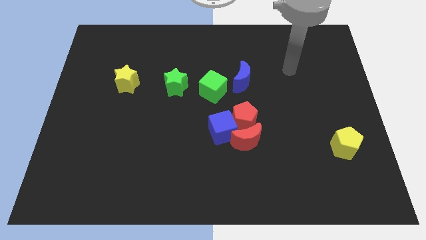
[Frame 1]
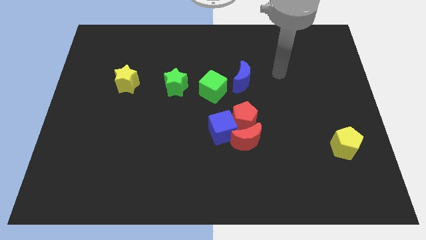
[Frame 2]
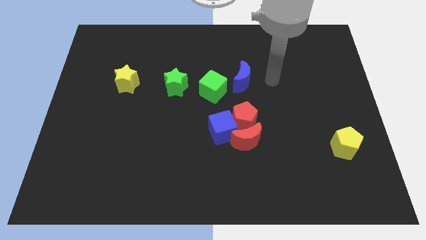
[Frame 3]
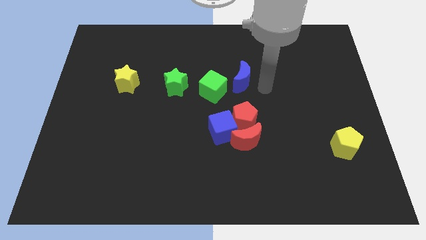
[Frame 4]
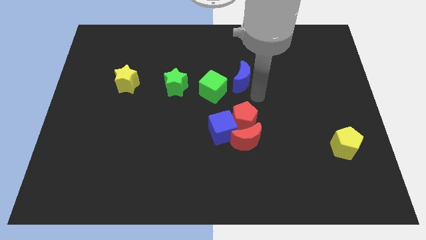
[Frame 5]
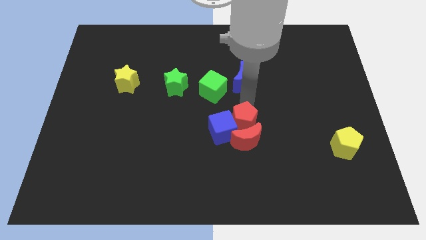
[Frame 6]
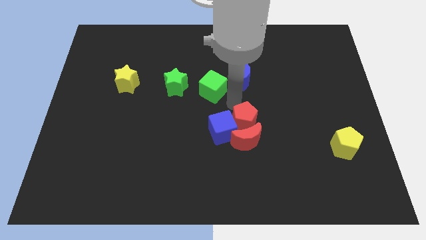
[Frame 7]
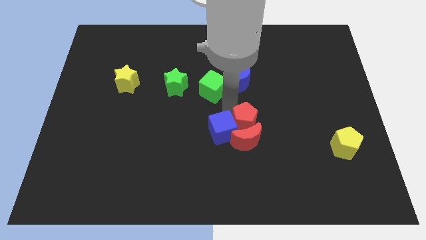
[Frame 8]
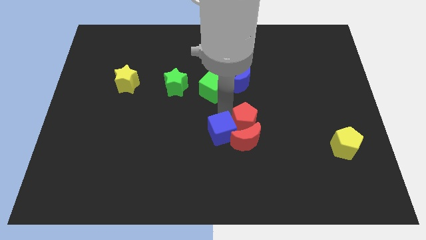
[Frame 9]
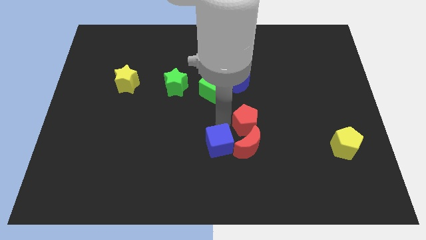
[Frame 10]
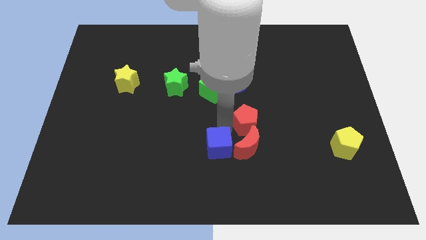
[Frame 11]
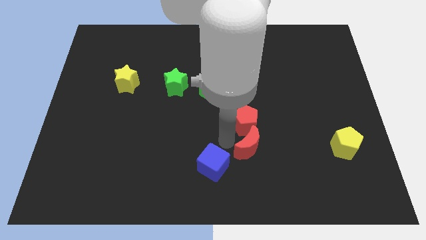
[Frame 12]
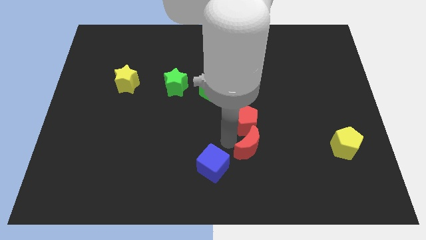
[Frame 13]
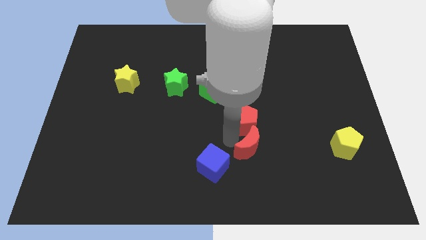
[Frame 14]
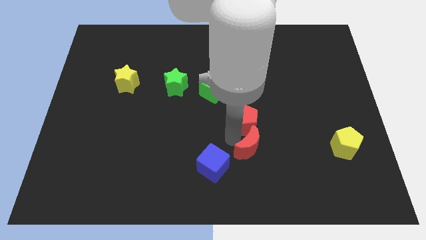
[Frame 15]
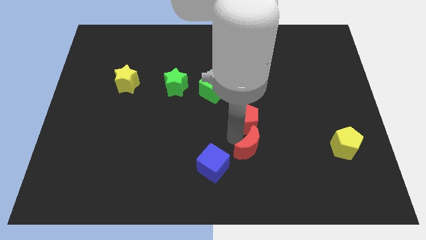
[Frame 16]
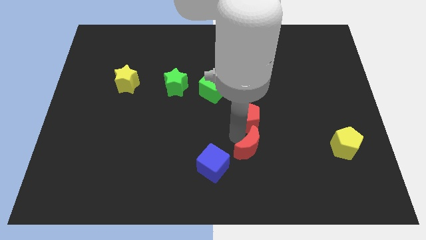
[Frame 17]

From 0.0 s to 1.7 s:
pull the red pentagon apart from the blue cube and red moon

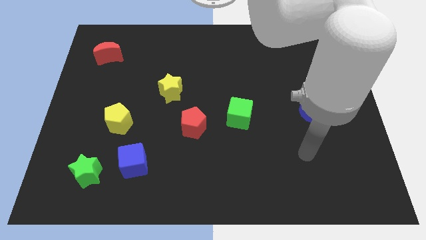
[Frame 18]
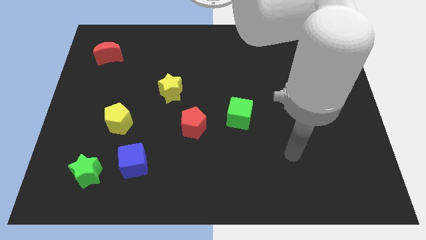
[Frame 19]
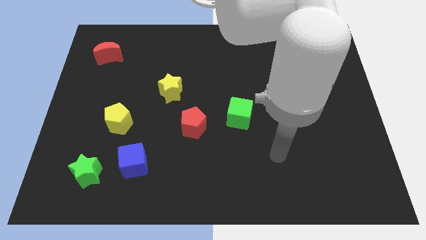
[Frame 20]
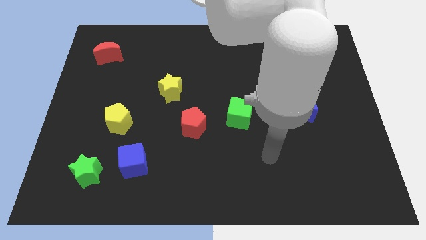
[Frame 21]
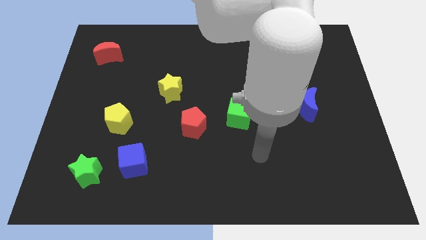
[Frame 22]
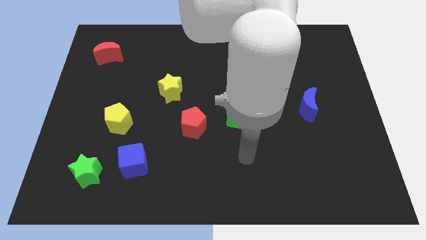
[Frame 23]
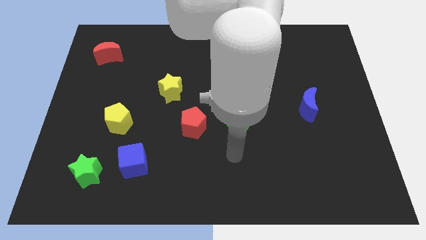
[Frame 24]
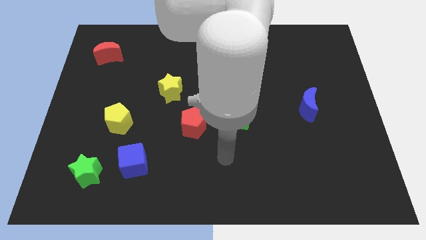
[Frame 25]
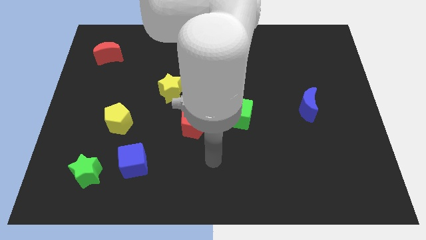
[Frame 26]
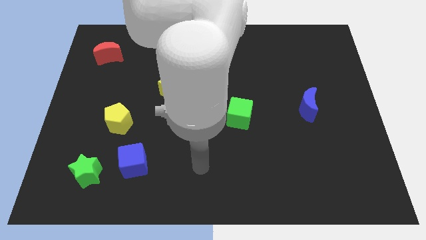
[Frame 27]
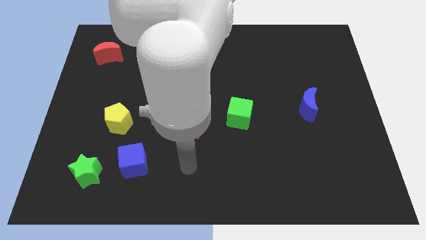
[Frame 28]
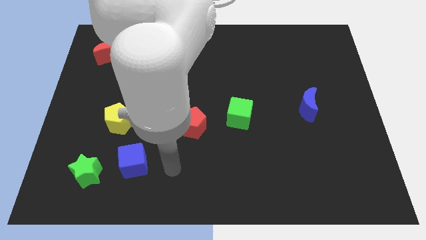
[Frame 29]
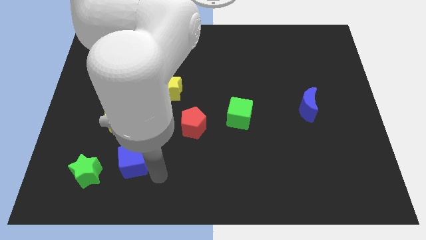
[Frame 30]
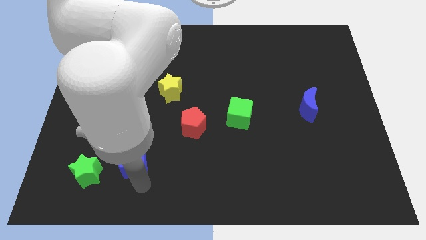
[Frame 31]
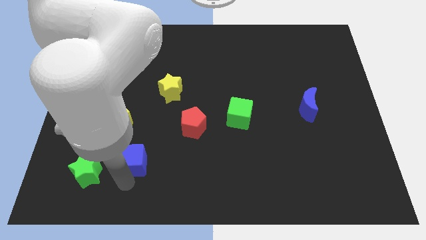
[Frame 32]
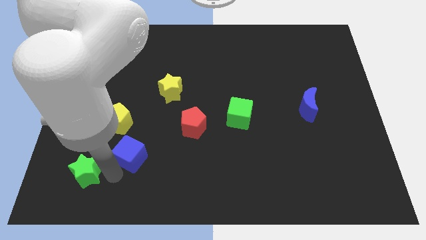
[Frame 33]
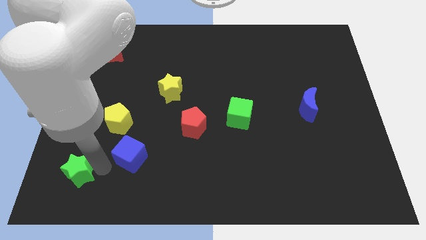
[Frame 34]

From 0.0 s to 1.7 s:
separate the blue cube from the green star

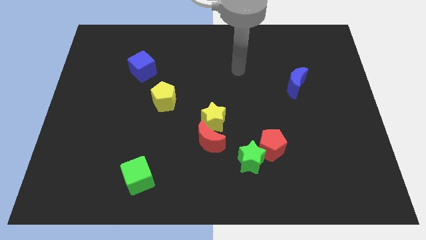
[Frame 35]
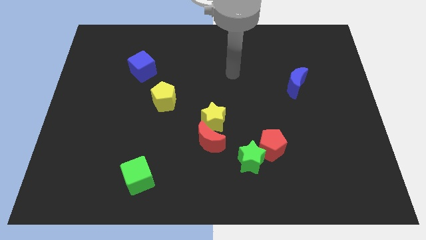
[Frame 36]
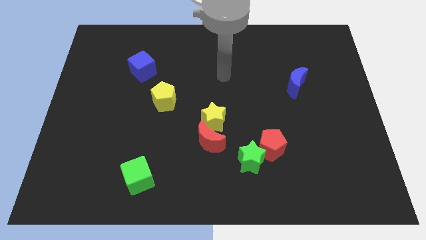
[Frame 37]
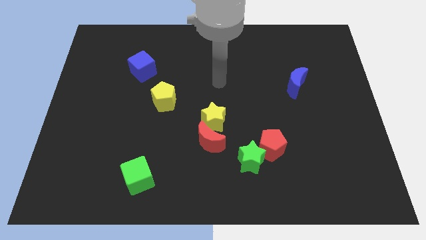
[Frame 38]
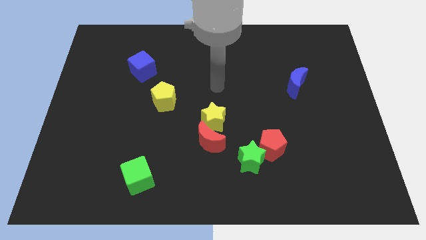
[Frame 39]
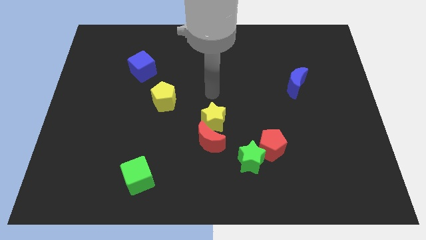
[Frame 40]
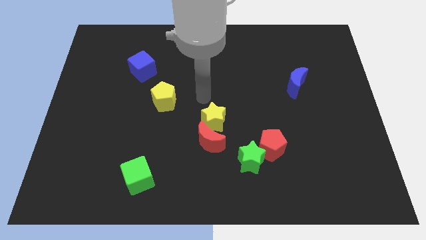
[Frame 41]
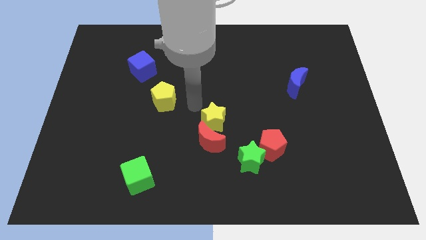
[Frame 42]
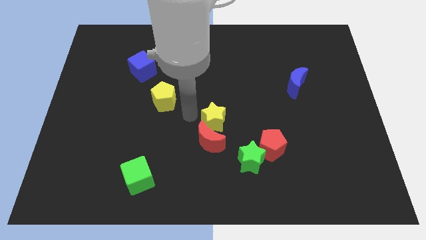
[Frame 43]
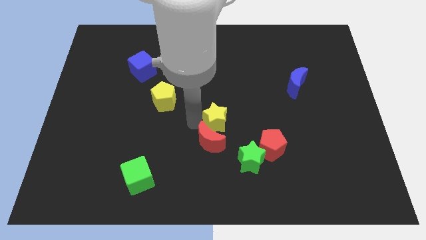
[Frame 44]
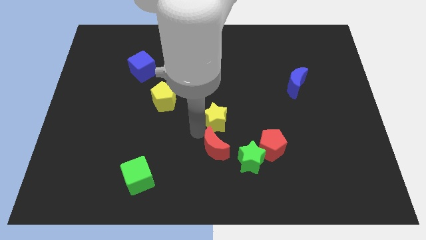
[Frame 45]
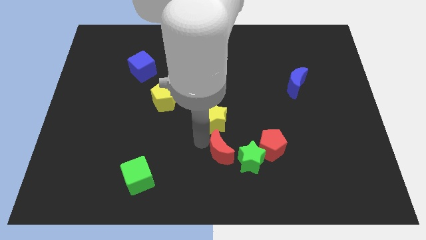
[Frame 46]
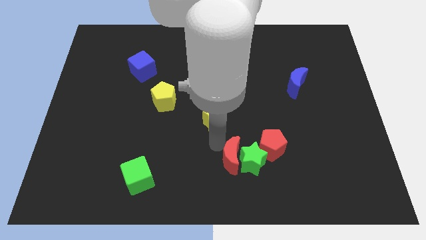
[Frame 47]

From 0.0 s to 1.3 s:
move the yellow star away from the red moon

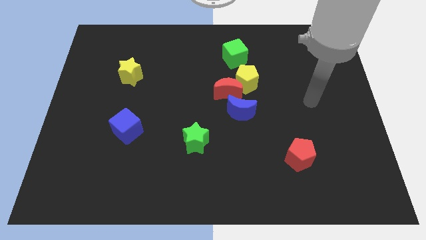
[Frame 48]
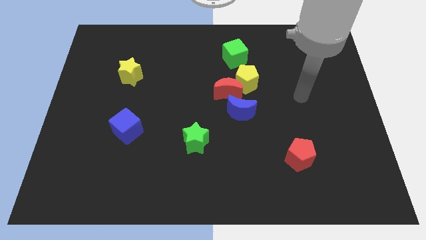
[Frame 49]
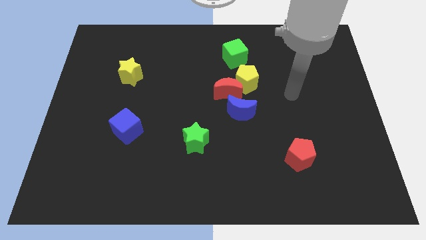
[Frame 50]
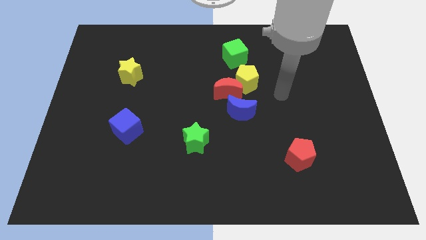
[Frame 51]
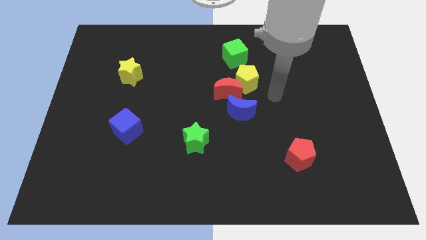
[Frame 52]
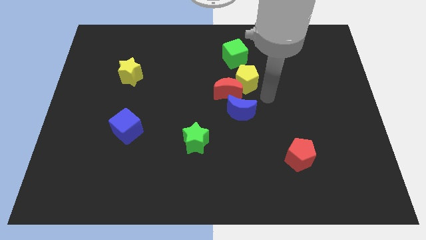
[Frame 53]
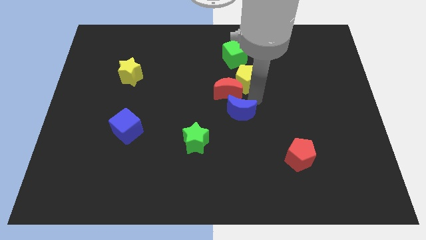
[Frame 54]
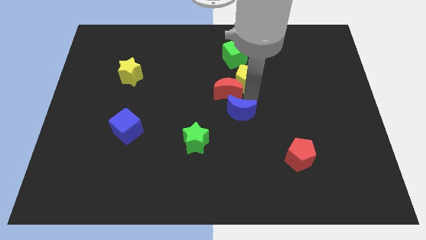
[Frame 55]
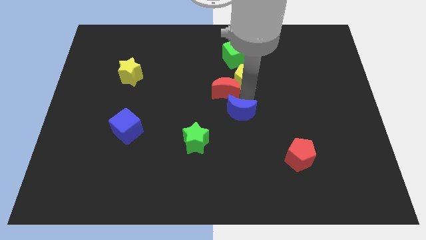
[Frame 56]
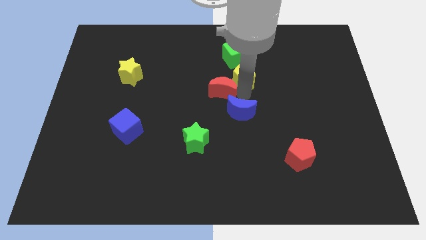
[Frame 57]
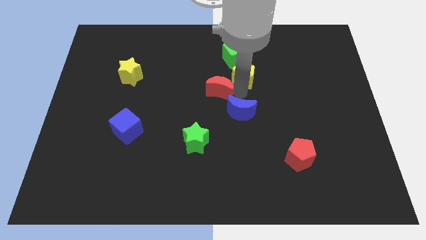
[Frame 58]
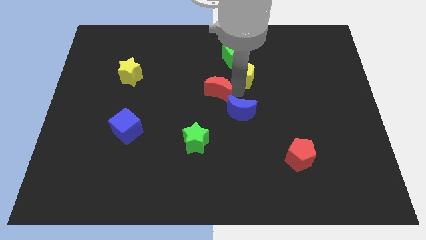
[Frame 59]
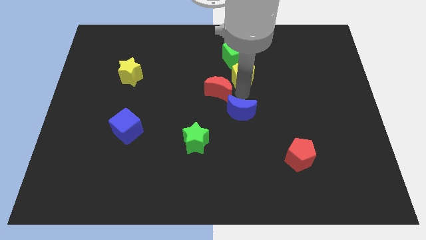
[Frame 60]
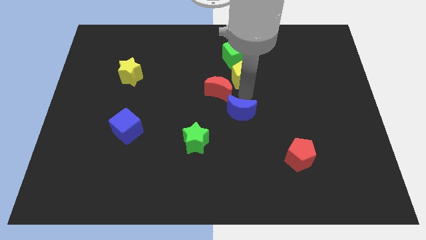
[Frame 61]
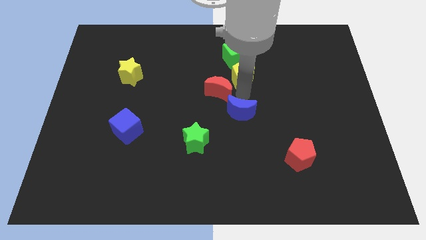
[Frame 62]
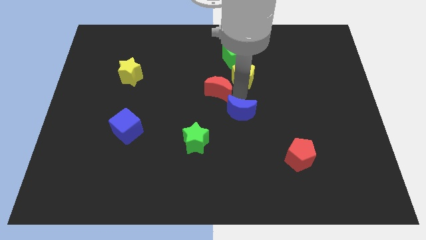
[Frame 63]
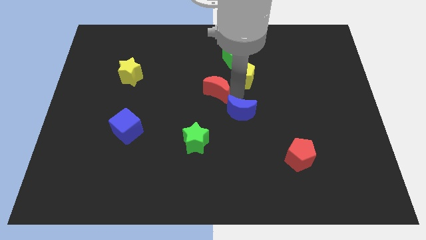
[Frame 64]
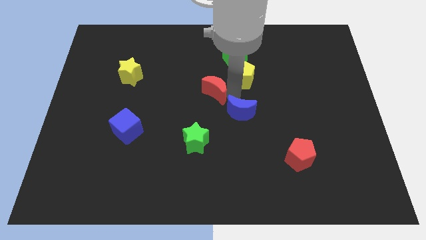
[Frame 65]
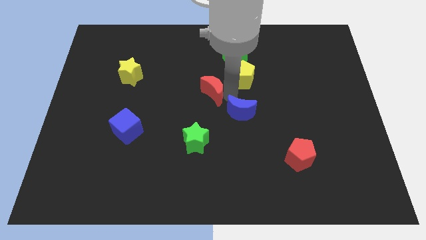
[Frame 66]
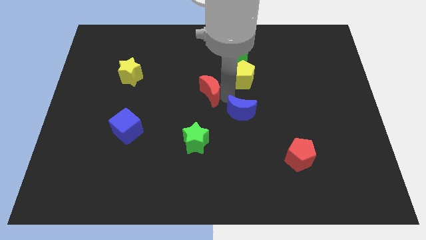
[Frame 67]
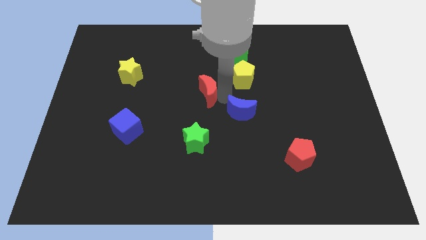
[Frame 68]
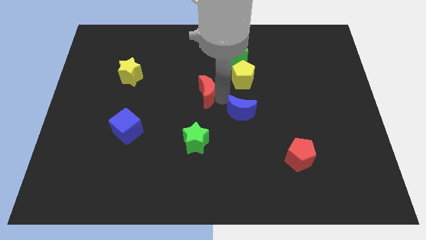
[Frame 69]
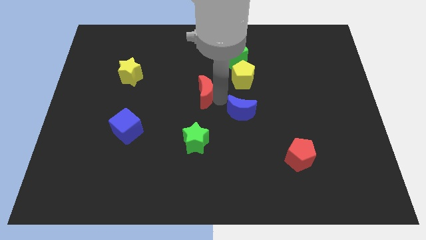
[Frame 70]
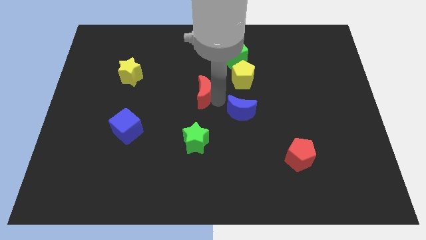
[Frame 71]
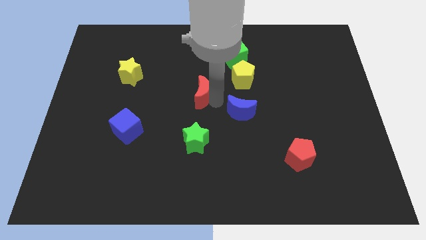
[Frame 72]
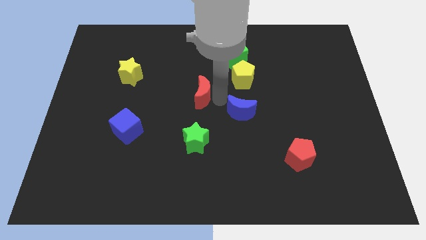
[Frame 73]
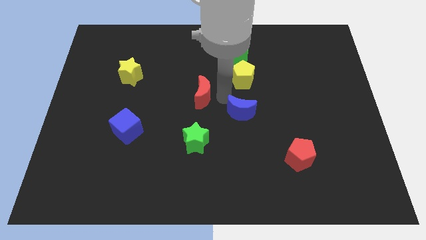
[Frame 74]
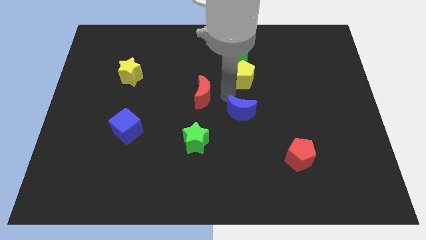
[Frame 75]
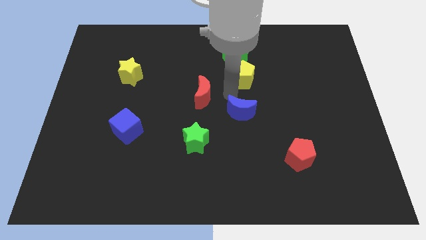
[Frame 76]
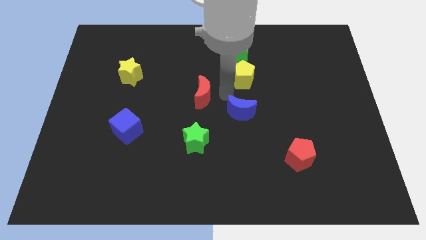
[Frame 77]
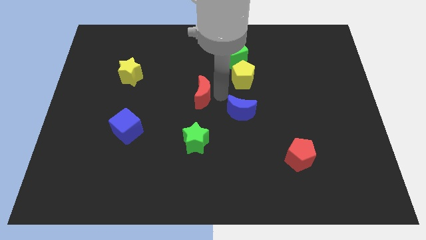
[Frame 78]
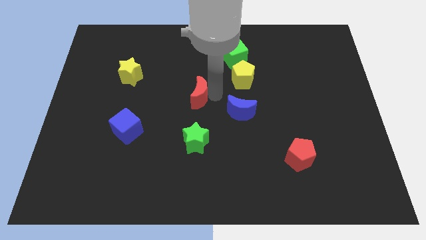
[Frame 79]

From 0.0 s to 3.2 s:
pull the red moon apart from the yellow pentagon and blue moon

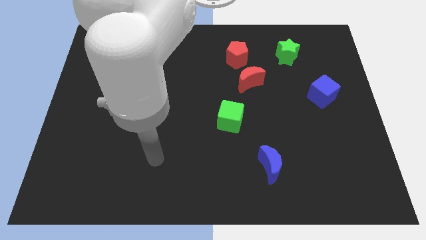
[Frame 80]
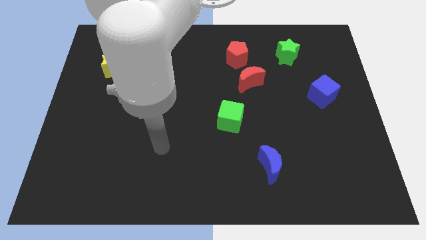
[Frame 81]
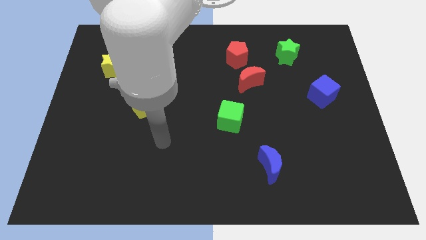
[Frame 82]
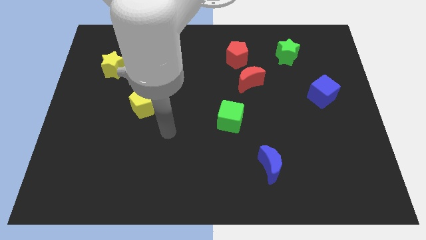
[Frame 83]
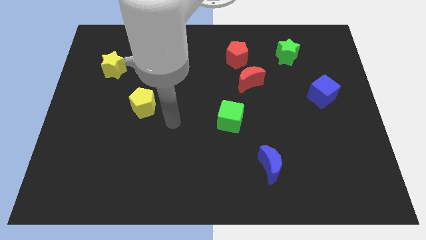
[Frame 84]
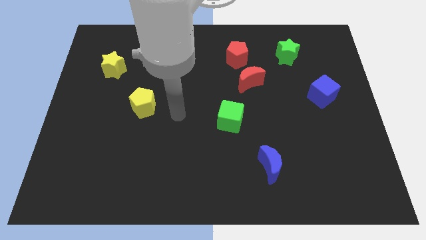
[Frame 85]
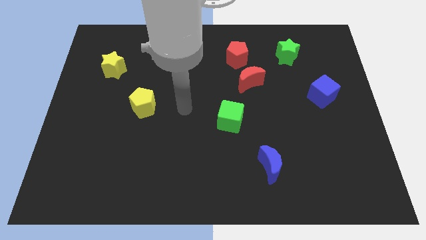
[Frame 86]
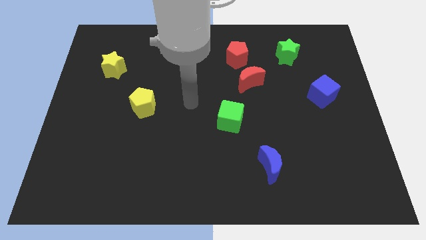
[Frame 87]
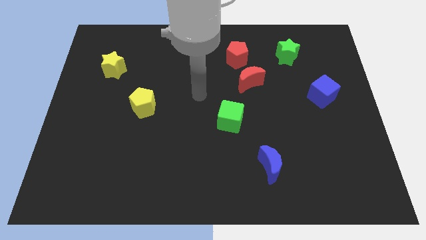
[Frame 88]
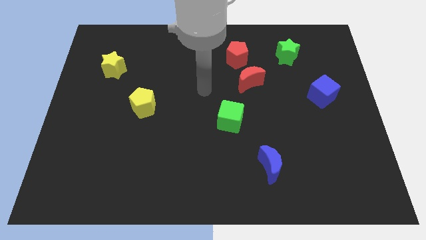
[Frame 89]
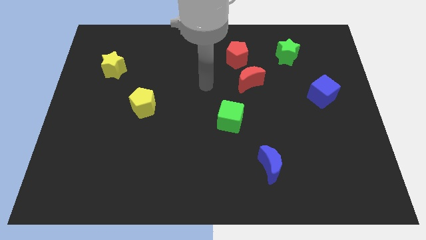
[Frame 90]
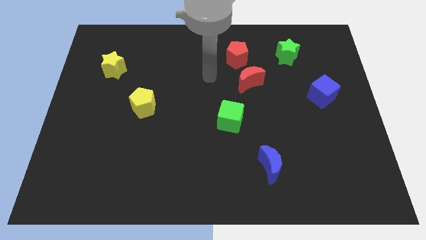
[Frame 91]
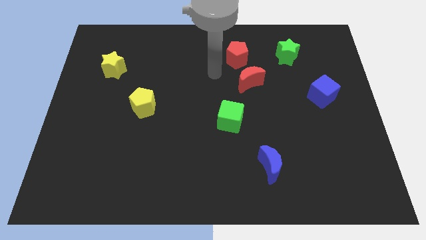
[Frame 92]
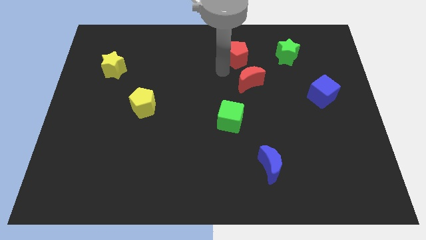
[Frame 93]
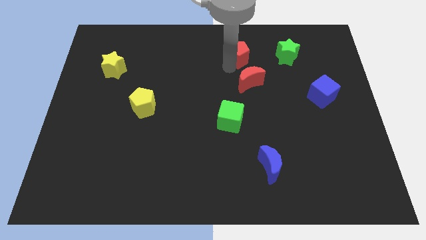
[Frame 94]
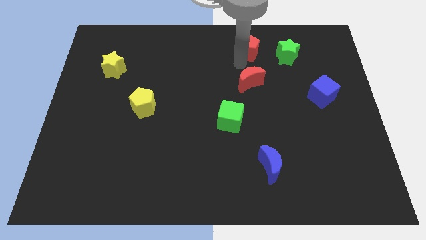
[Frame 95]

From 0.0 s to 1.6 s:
move the red moon away from the red pentagon
